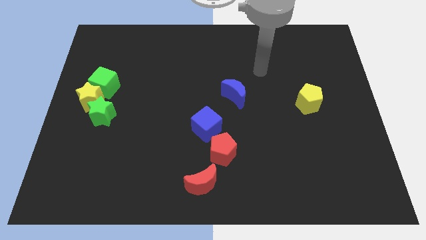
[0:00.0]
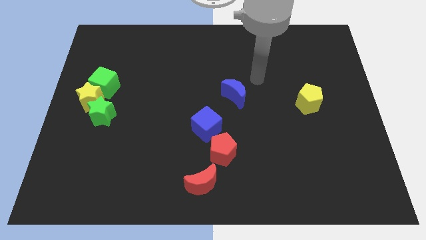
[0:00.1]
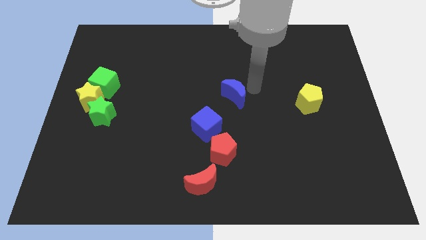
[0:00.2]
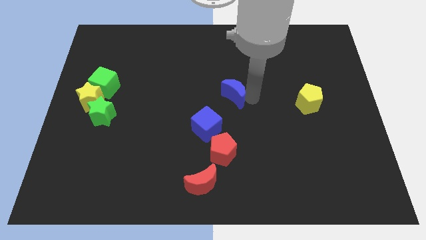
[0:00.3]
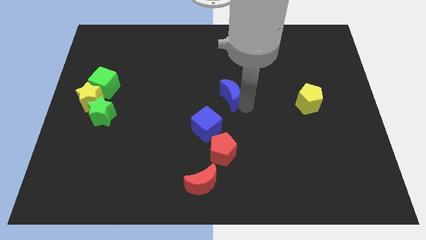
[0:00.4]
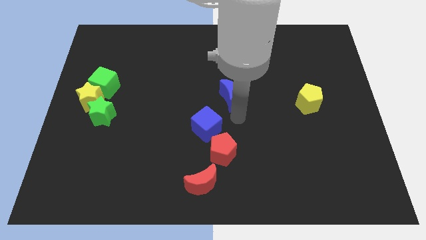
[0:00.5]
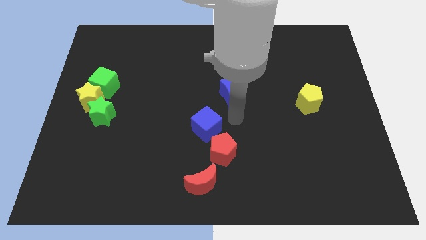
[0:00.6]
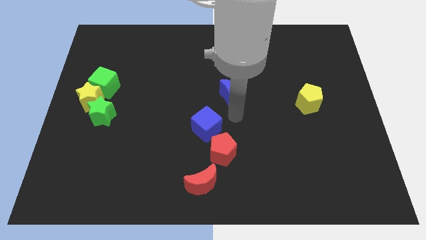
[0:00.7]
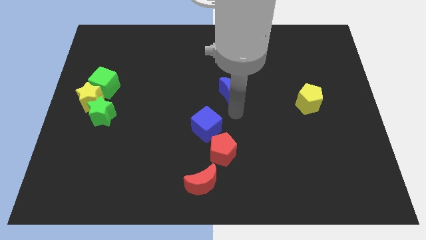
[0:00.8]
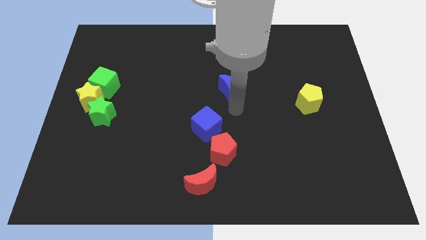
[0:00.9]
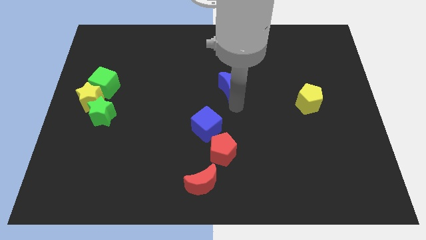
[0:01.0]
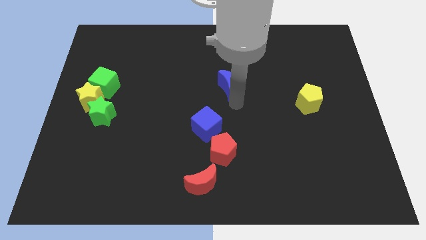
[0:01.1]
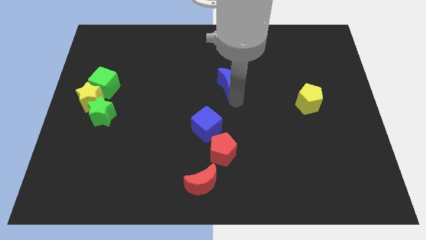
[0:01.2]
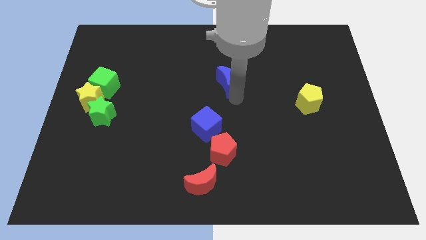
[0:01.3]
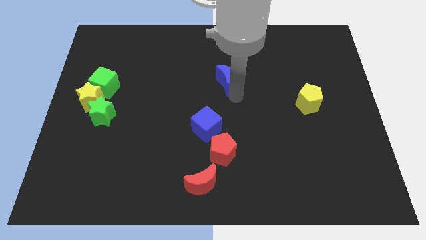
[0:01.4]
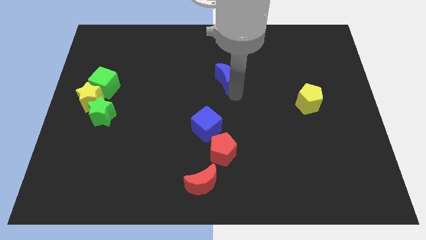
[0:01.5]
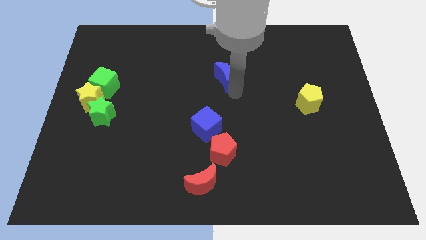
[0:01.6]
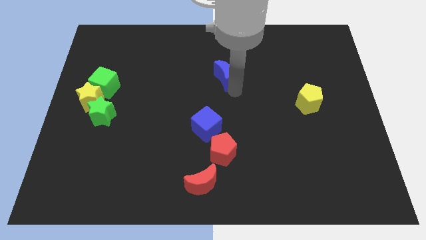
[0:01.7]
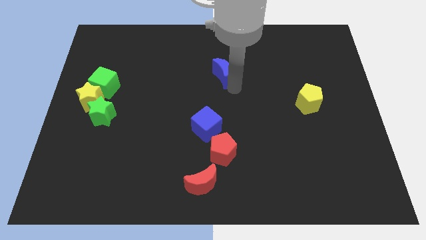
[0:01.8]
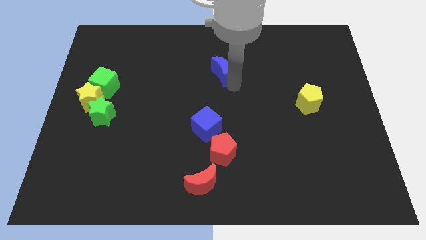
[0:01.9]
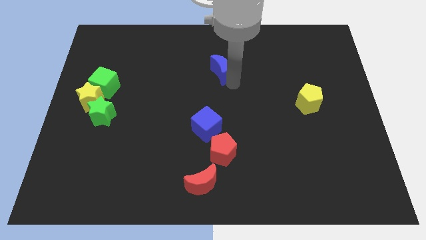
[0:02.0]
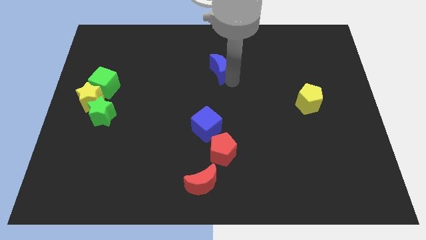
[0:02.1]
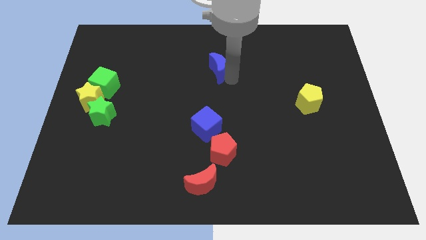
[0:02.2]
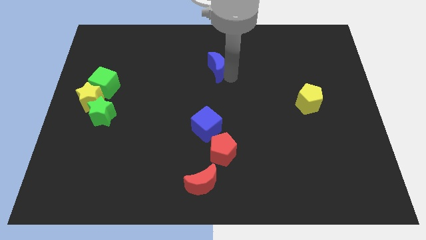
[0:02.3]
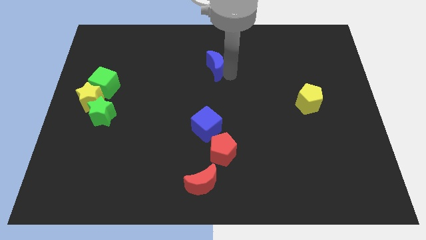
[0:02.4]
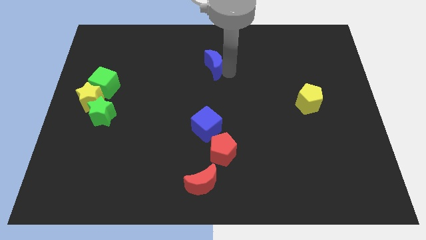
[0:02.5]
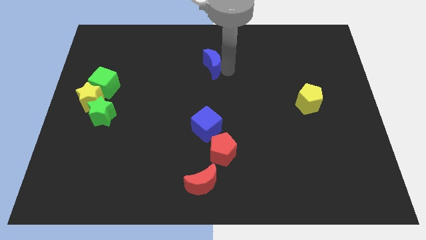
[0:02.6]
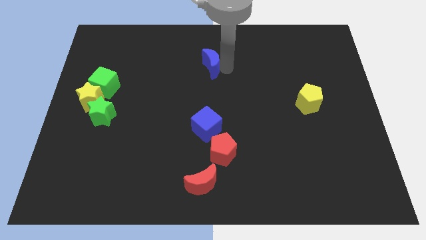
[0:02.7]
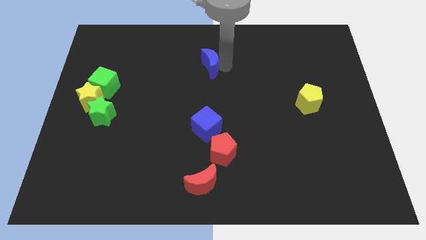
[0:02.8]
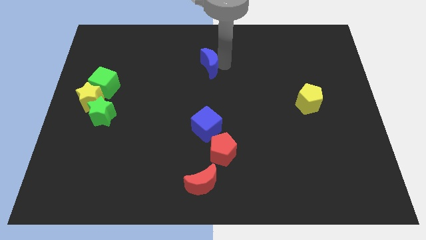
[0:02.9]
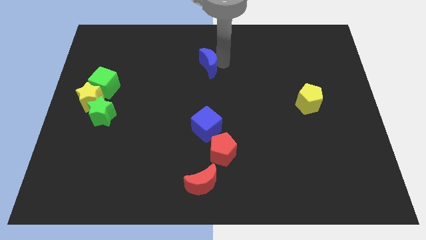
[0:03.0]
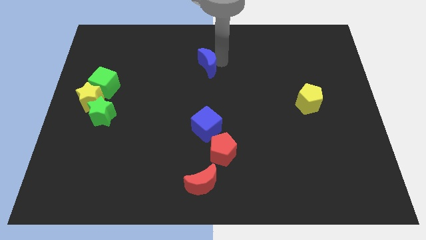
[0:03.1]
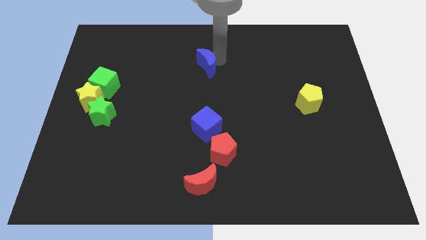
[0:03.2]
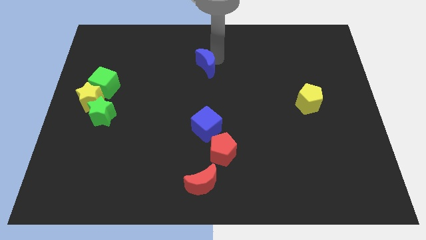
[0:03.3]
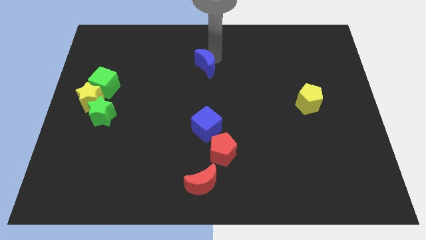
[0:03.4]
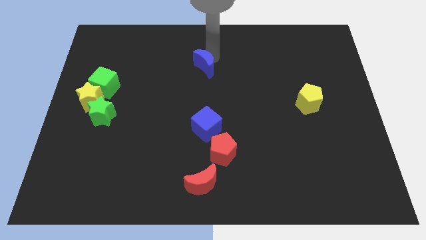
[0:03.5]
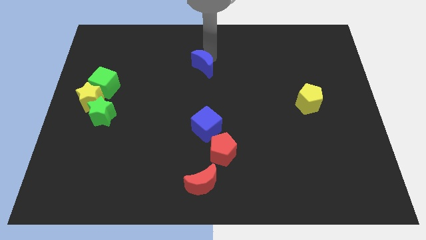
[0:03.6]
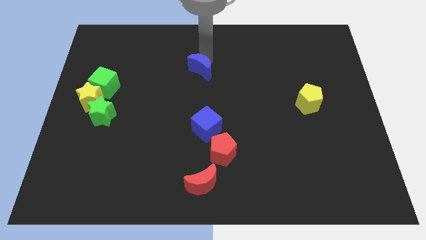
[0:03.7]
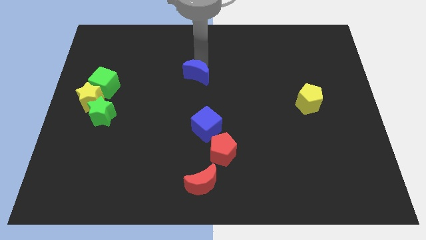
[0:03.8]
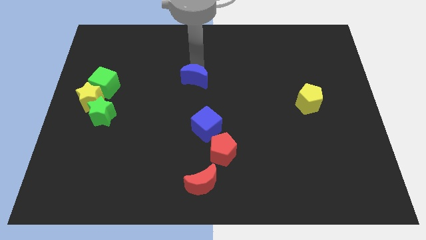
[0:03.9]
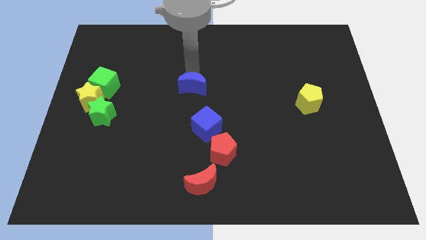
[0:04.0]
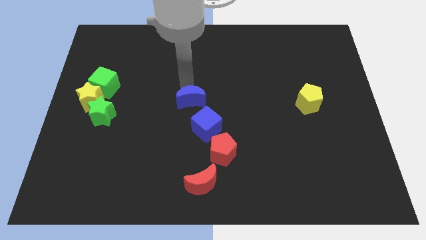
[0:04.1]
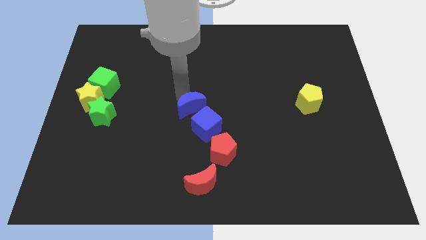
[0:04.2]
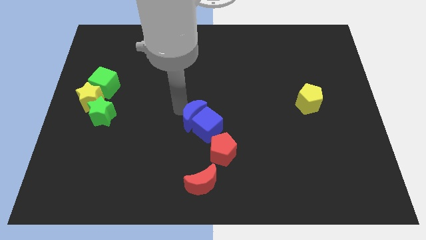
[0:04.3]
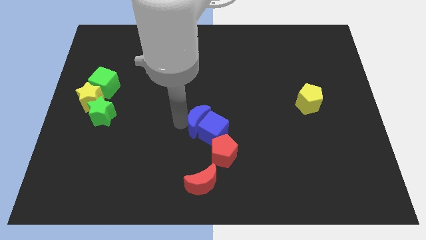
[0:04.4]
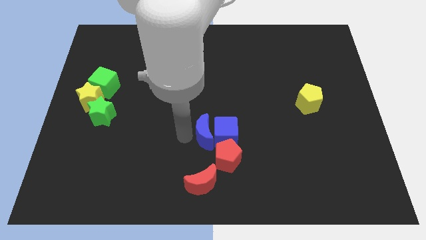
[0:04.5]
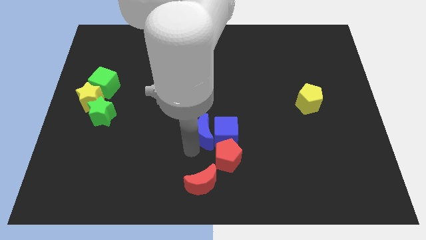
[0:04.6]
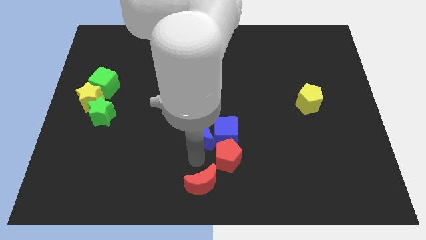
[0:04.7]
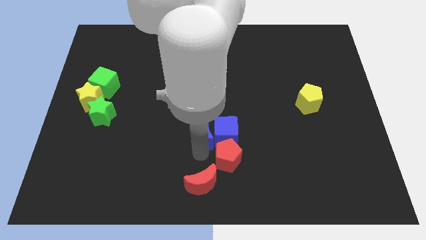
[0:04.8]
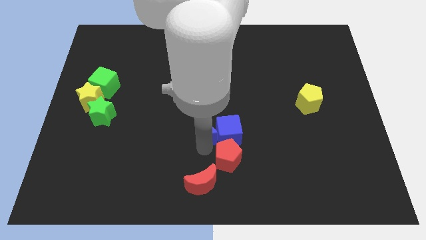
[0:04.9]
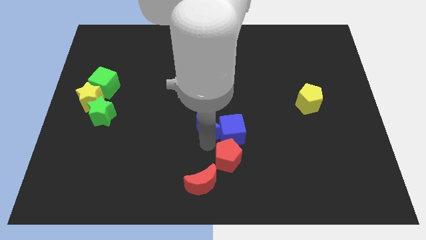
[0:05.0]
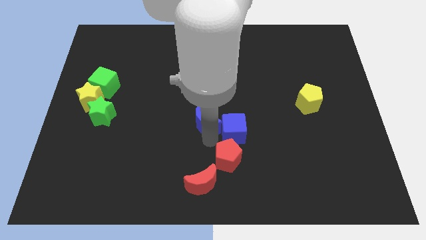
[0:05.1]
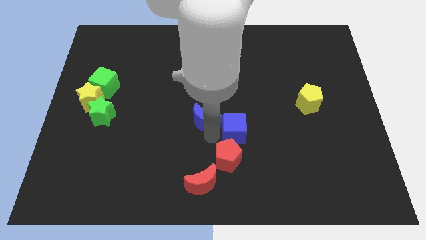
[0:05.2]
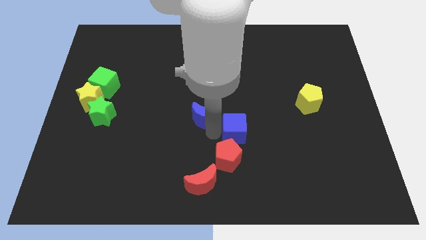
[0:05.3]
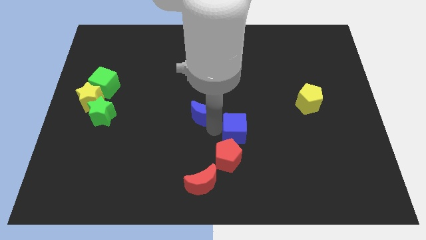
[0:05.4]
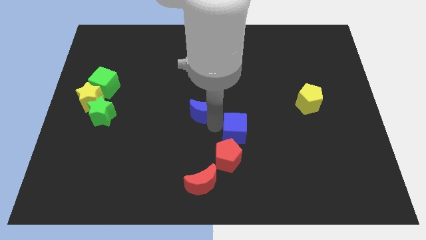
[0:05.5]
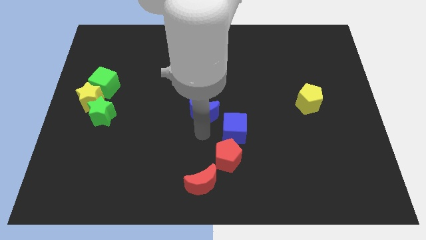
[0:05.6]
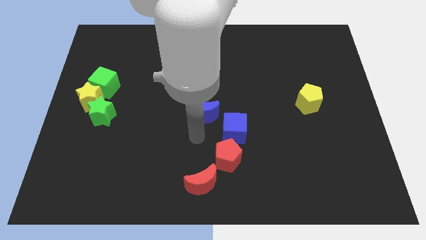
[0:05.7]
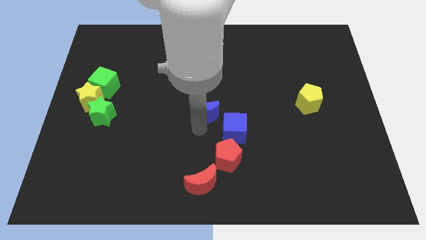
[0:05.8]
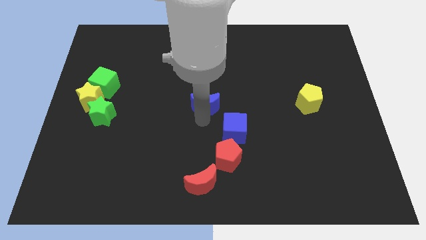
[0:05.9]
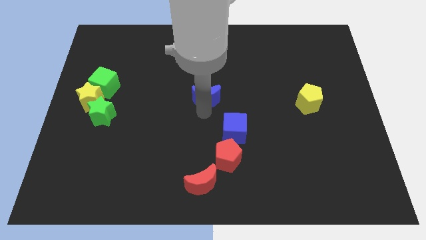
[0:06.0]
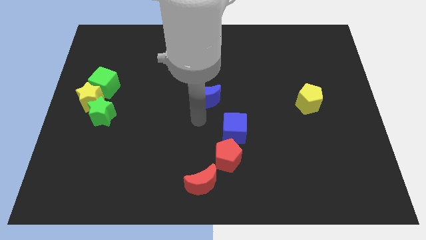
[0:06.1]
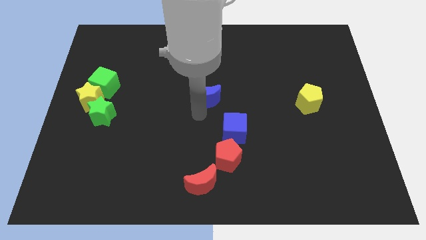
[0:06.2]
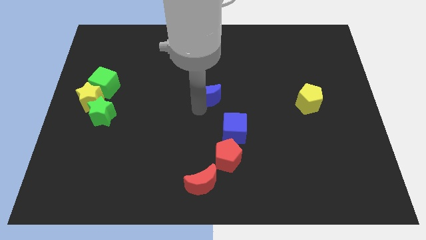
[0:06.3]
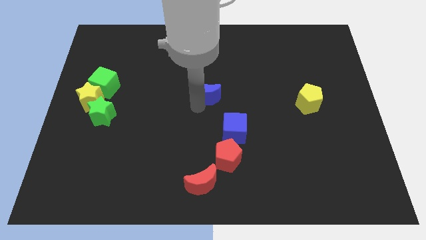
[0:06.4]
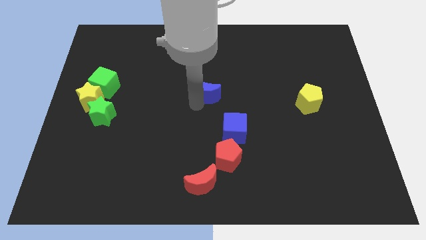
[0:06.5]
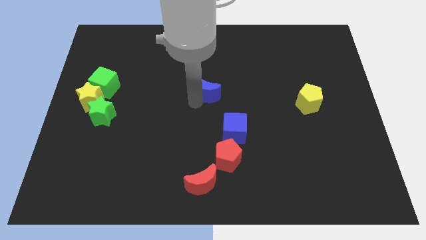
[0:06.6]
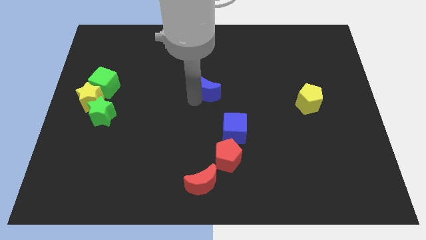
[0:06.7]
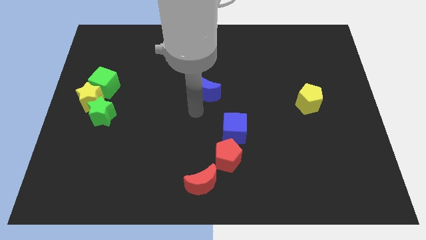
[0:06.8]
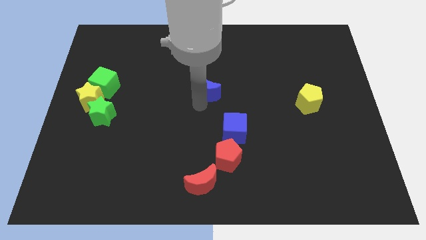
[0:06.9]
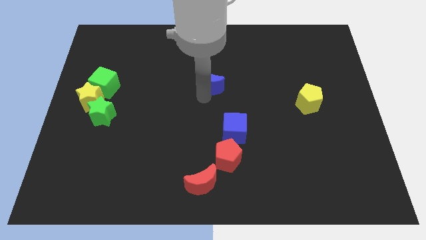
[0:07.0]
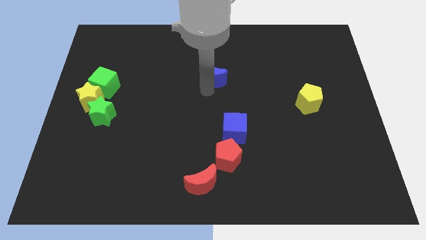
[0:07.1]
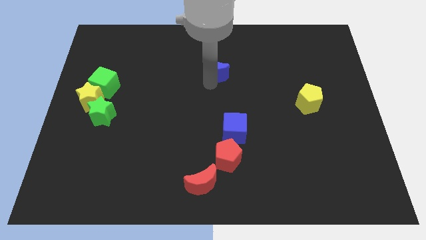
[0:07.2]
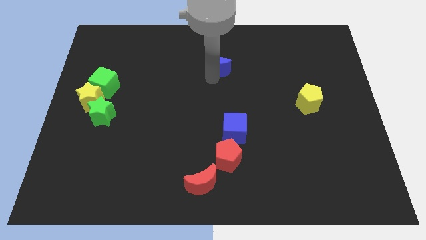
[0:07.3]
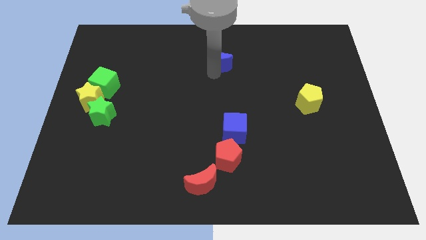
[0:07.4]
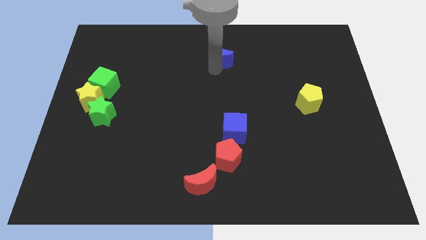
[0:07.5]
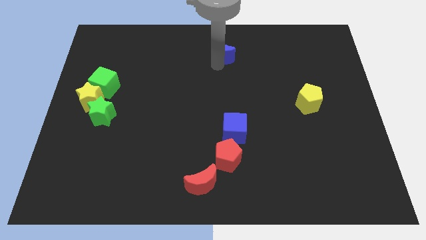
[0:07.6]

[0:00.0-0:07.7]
slide the blue moon to the towards your base
